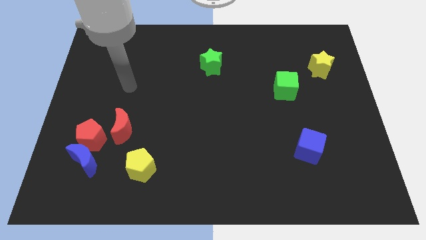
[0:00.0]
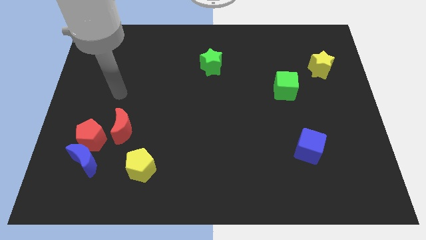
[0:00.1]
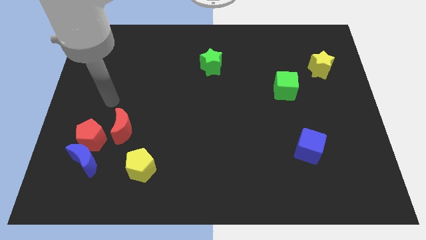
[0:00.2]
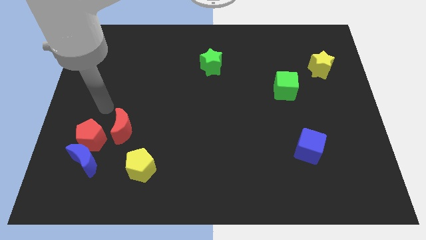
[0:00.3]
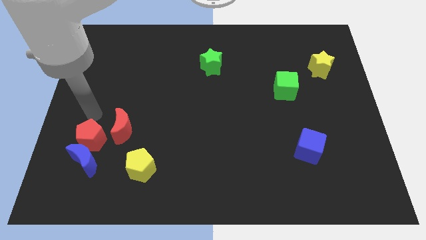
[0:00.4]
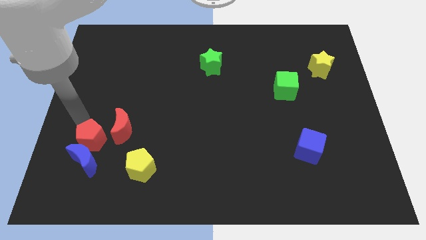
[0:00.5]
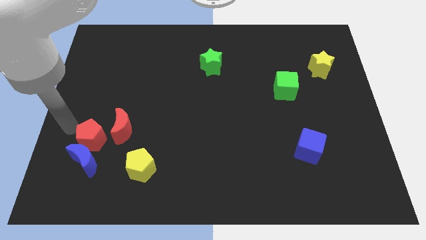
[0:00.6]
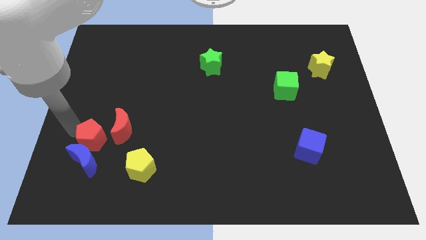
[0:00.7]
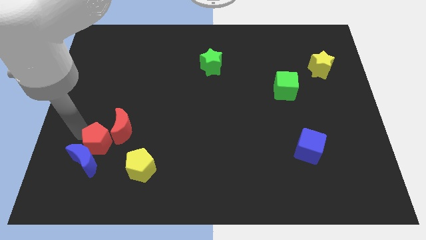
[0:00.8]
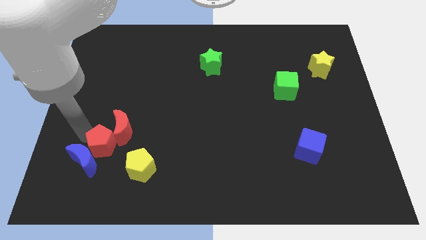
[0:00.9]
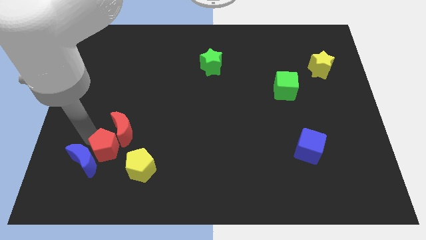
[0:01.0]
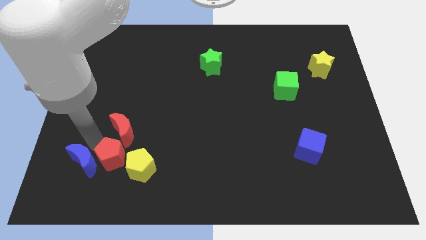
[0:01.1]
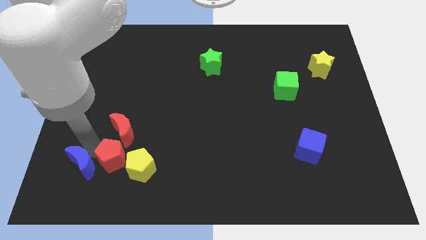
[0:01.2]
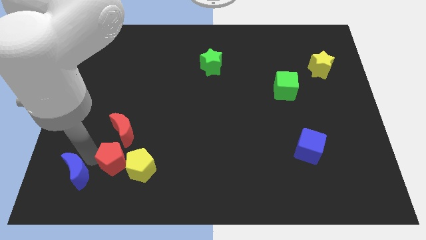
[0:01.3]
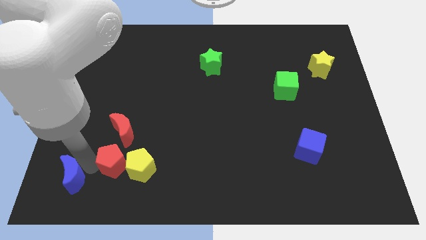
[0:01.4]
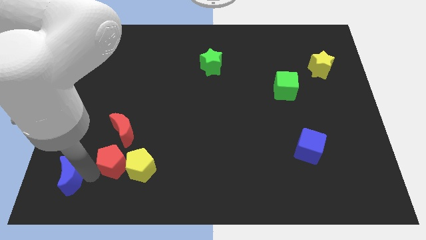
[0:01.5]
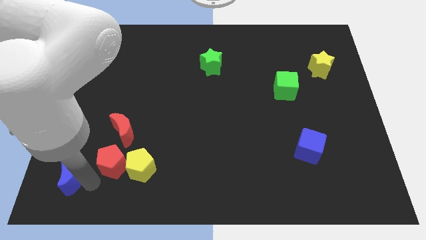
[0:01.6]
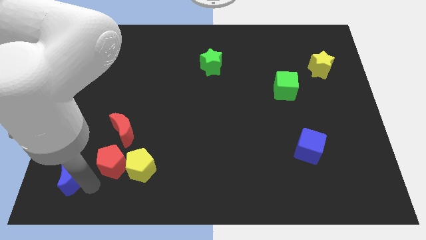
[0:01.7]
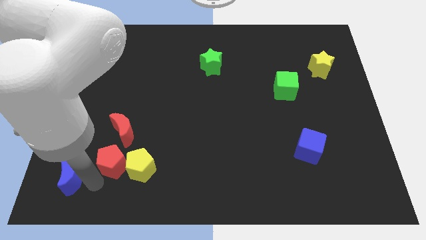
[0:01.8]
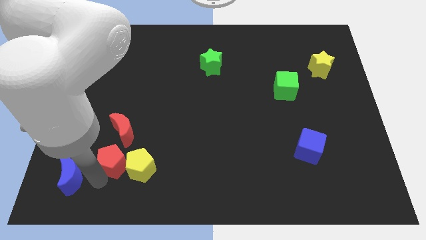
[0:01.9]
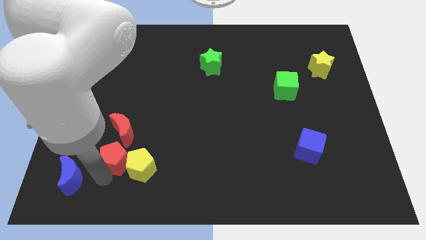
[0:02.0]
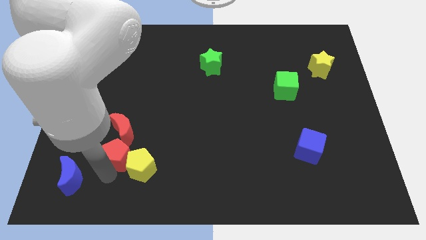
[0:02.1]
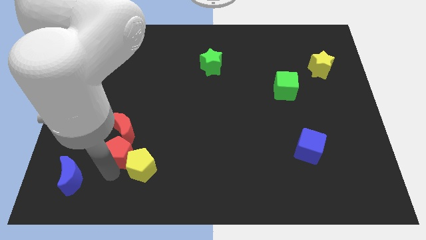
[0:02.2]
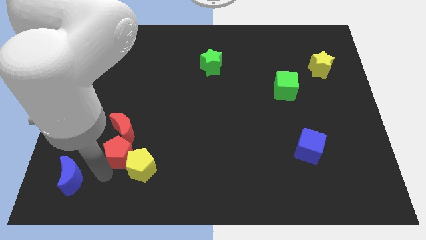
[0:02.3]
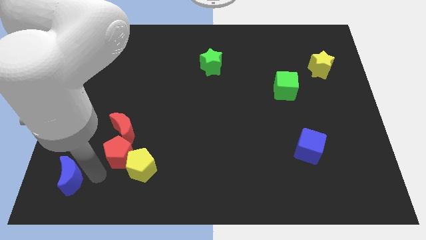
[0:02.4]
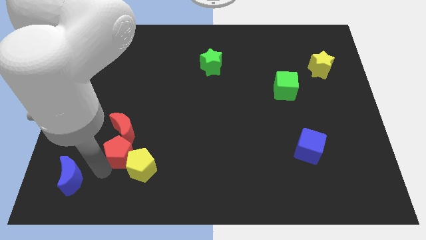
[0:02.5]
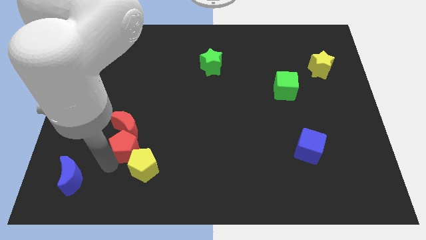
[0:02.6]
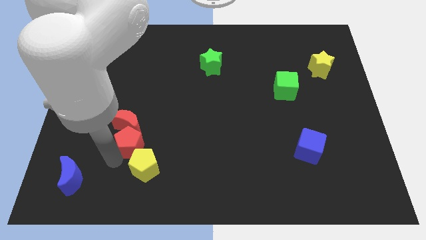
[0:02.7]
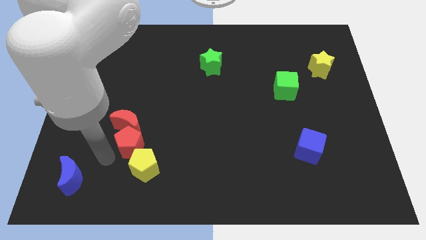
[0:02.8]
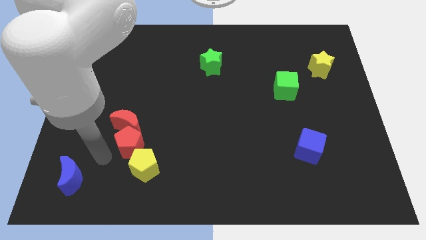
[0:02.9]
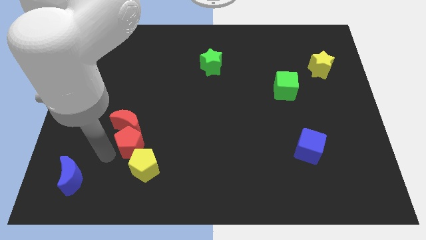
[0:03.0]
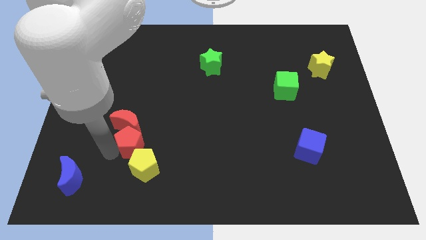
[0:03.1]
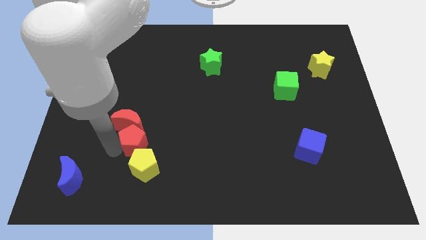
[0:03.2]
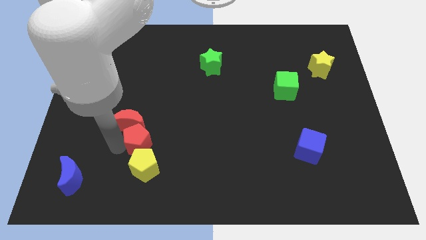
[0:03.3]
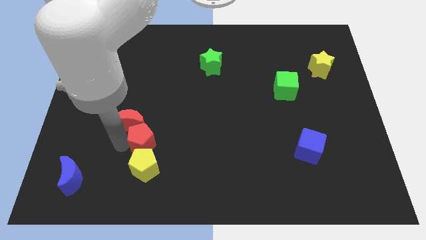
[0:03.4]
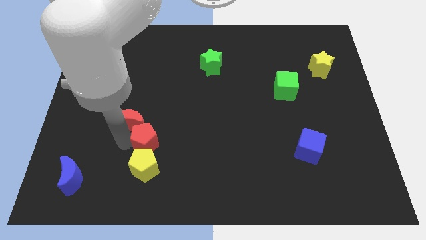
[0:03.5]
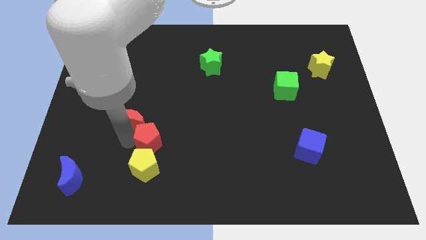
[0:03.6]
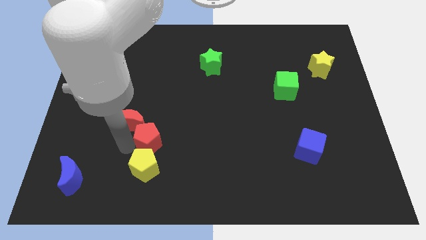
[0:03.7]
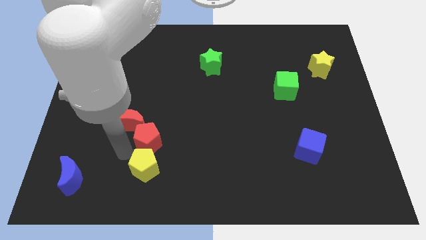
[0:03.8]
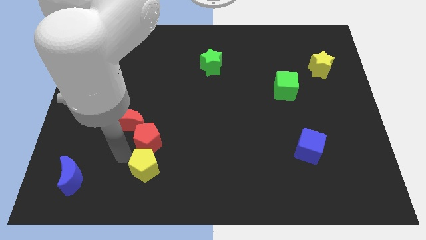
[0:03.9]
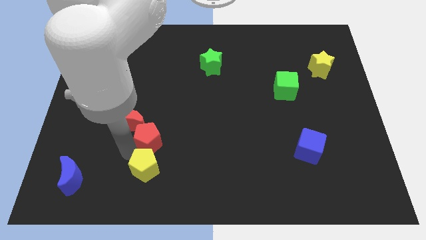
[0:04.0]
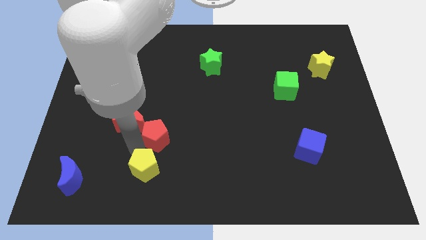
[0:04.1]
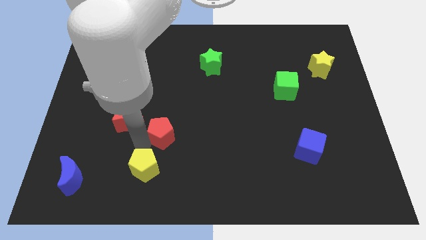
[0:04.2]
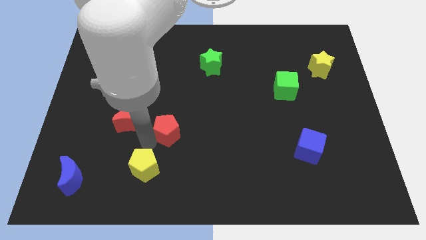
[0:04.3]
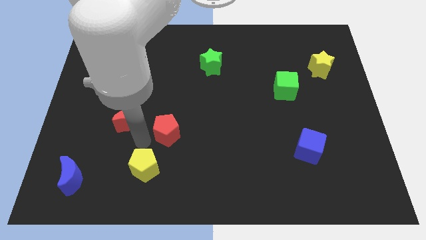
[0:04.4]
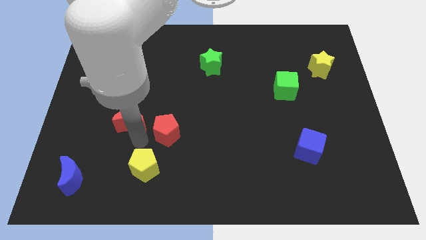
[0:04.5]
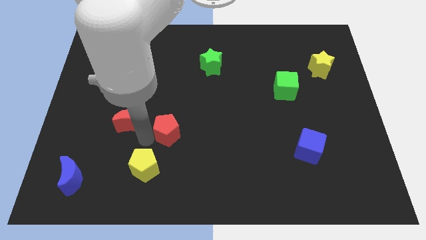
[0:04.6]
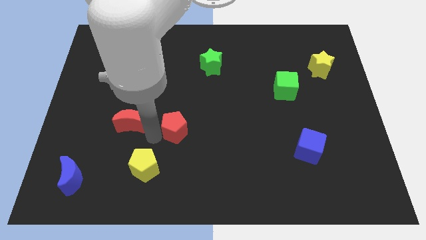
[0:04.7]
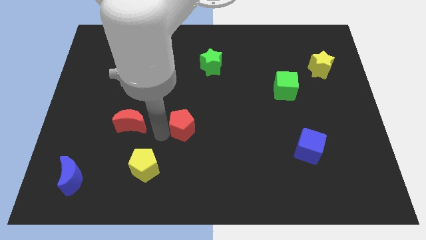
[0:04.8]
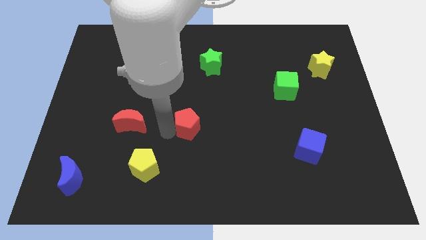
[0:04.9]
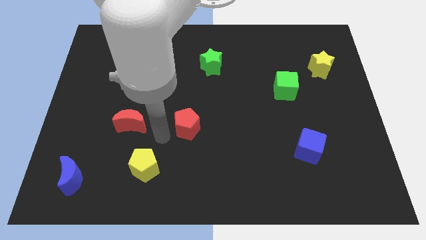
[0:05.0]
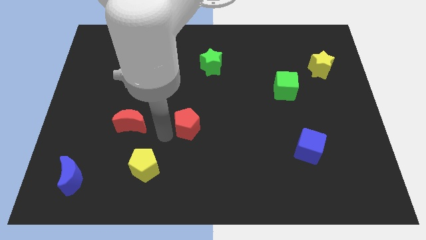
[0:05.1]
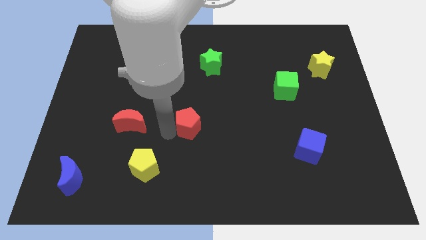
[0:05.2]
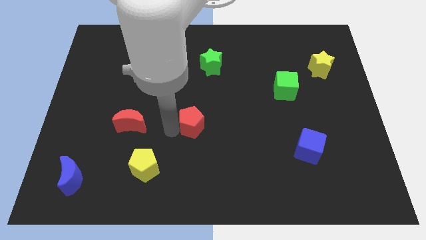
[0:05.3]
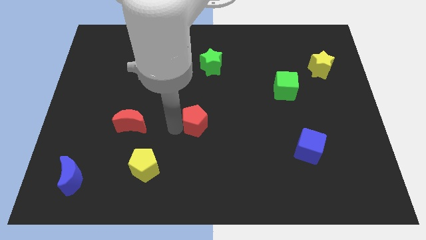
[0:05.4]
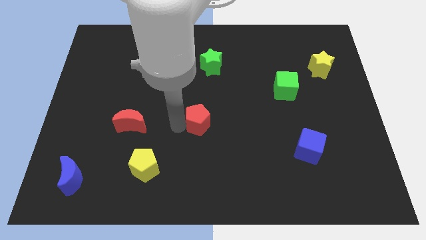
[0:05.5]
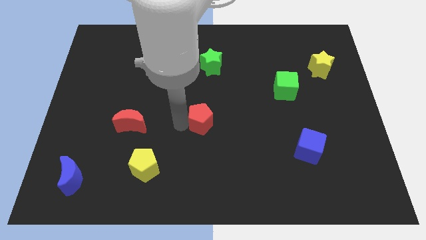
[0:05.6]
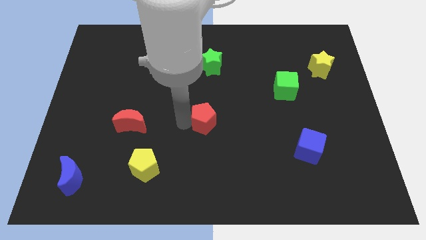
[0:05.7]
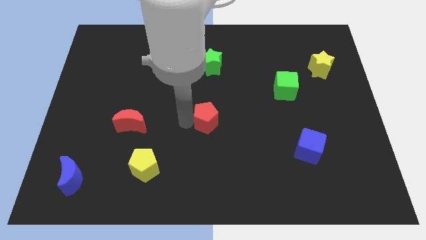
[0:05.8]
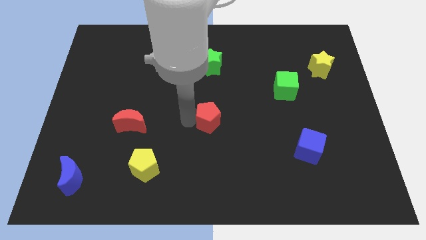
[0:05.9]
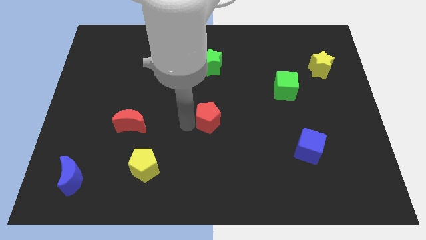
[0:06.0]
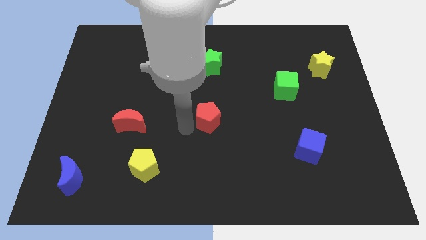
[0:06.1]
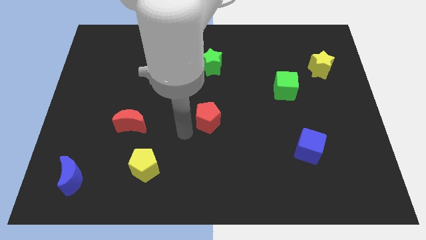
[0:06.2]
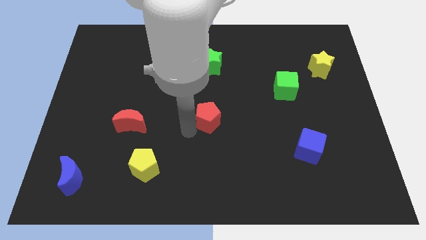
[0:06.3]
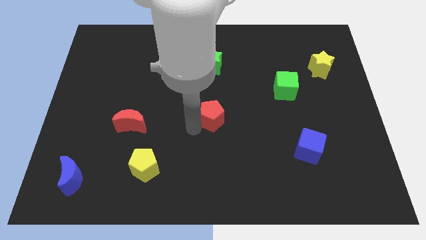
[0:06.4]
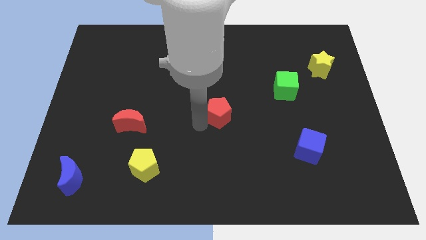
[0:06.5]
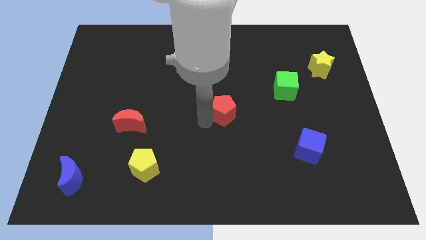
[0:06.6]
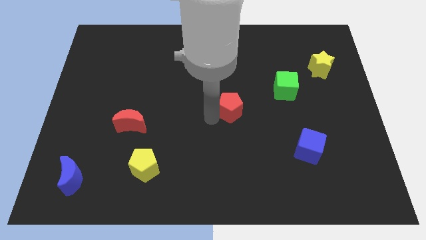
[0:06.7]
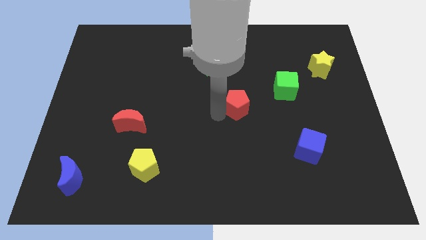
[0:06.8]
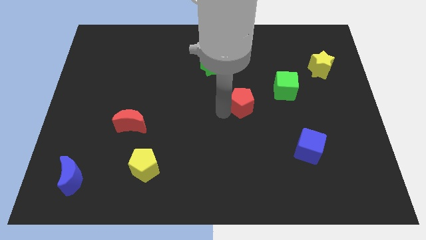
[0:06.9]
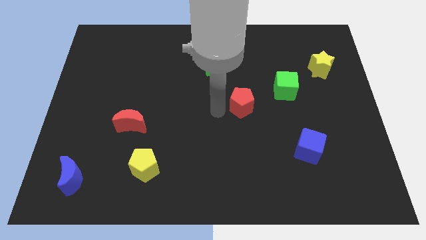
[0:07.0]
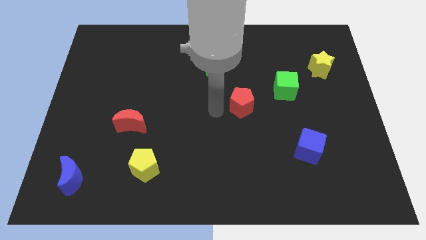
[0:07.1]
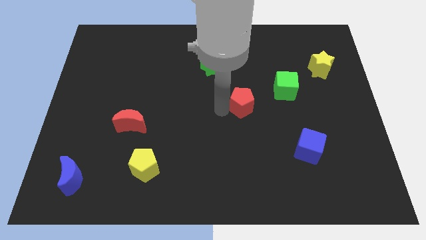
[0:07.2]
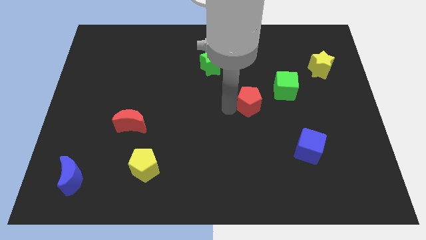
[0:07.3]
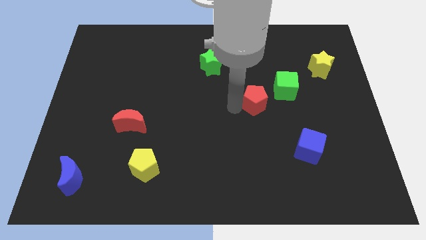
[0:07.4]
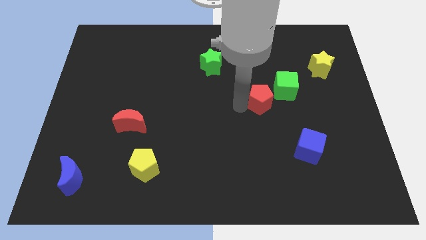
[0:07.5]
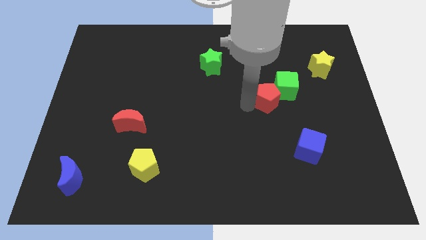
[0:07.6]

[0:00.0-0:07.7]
move the red pentagon to the green cube
